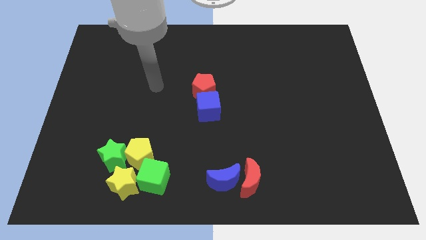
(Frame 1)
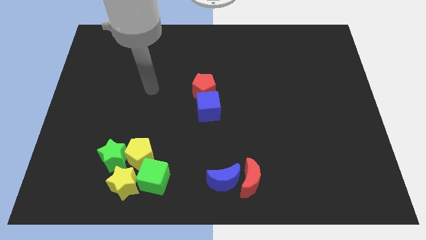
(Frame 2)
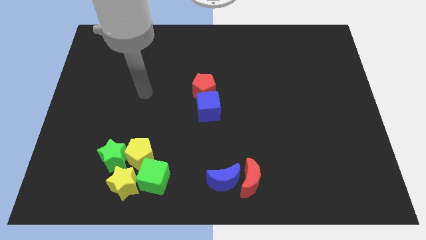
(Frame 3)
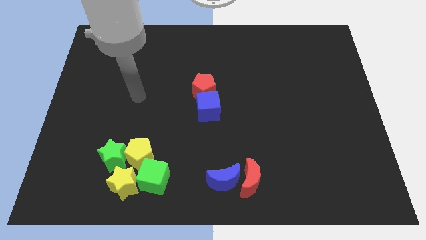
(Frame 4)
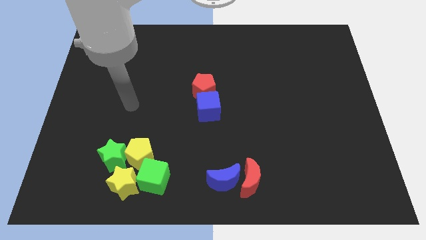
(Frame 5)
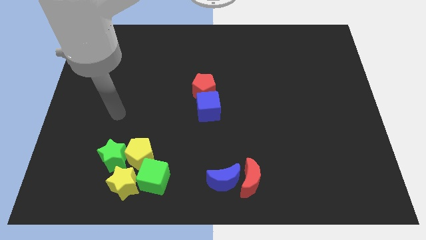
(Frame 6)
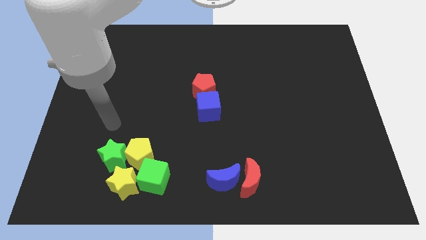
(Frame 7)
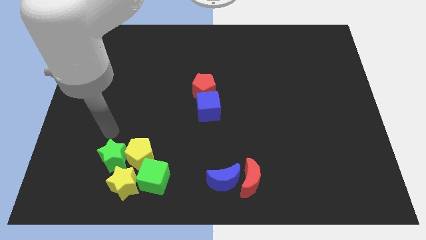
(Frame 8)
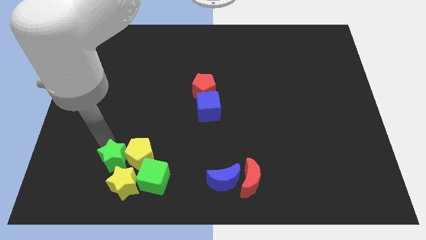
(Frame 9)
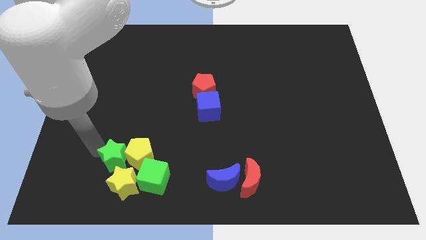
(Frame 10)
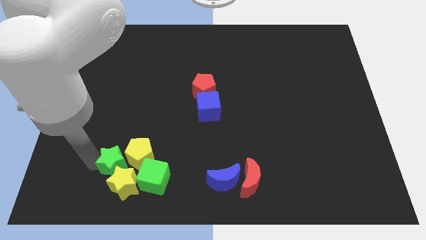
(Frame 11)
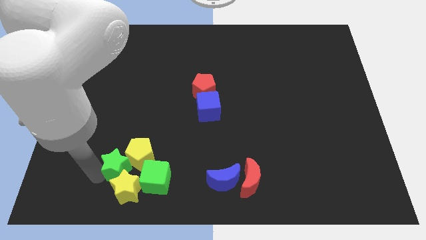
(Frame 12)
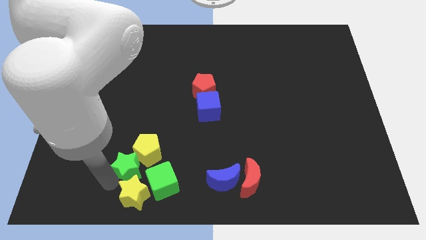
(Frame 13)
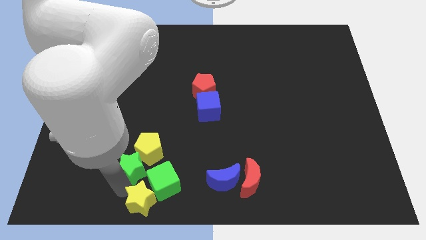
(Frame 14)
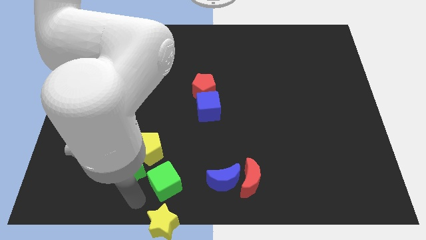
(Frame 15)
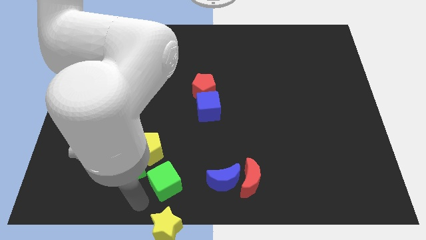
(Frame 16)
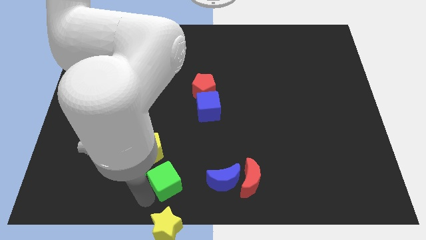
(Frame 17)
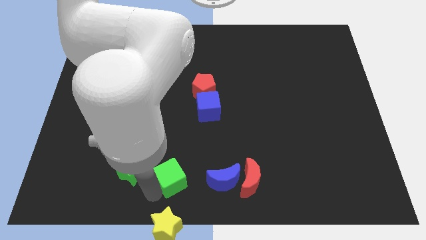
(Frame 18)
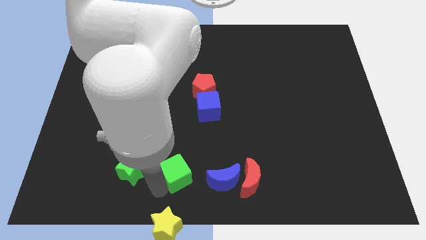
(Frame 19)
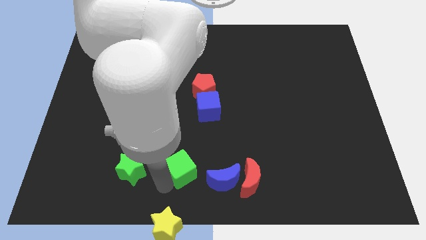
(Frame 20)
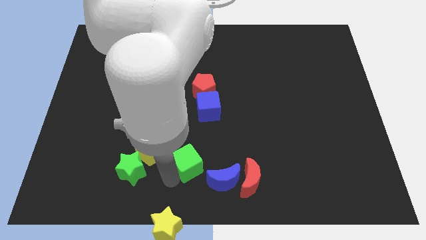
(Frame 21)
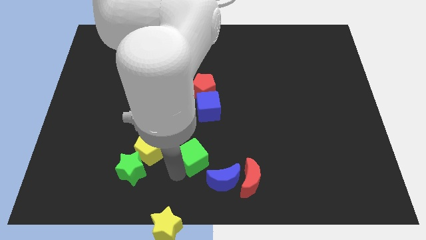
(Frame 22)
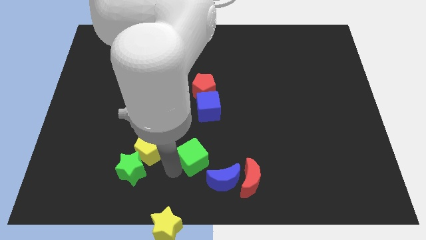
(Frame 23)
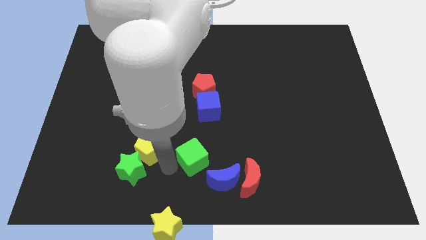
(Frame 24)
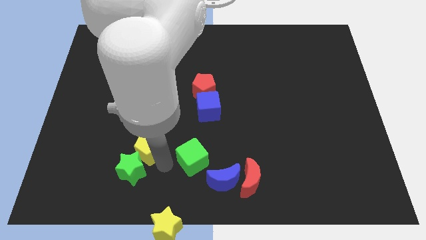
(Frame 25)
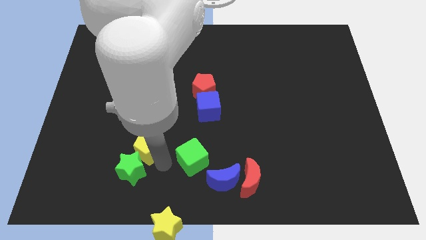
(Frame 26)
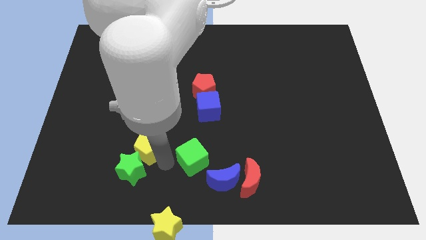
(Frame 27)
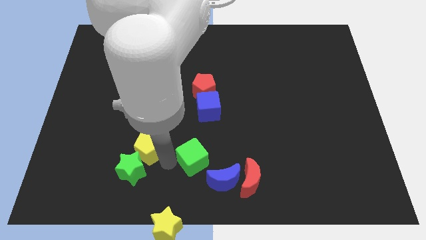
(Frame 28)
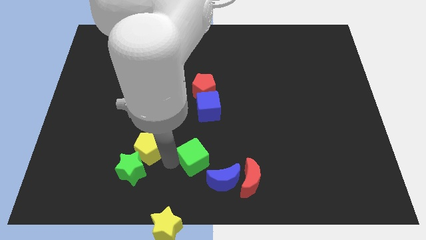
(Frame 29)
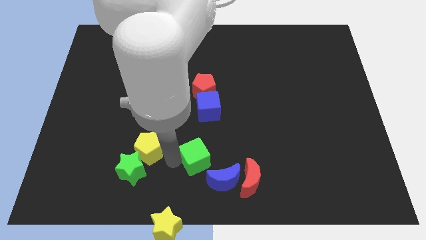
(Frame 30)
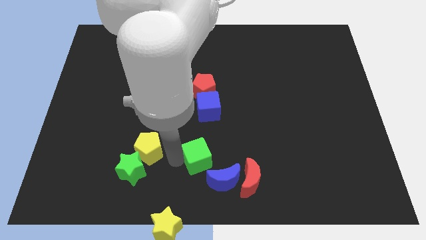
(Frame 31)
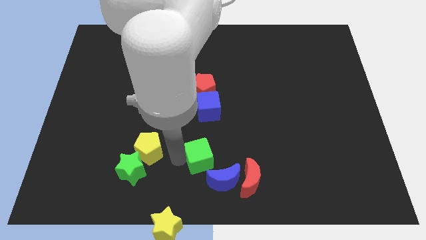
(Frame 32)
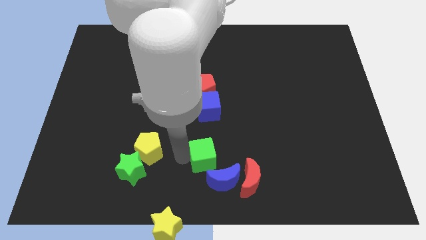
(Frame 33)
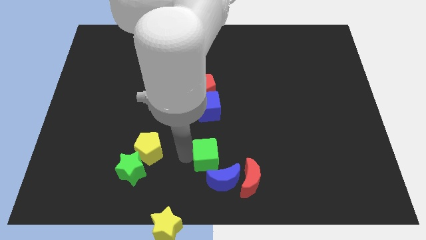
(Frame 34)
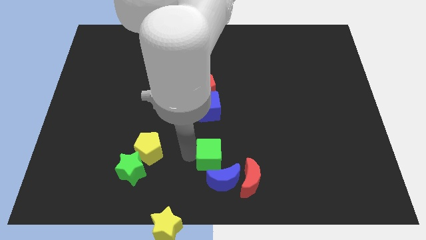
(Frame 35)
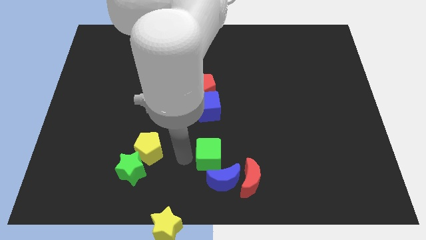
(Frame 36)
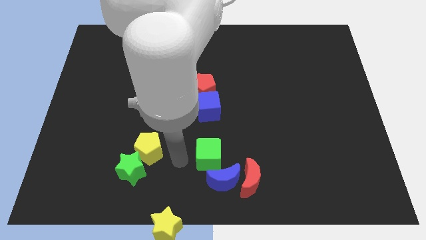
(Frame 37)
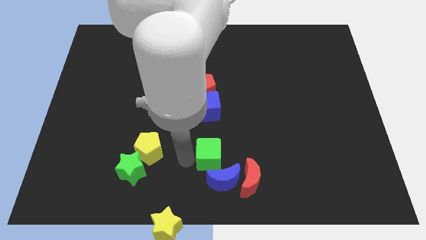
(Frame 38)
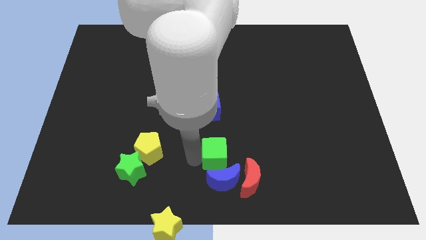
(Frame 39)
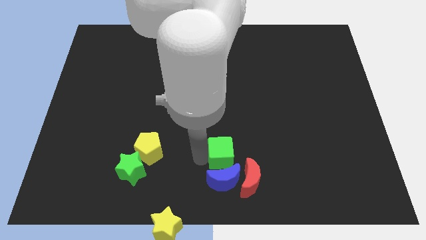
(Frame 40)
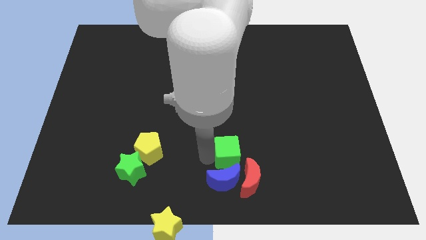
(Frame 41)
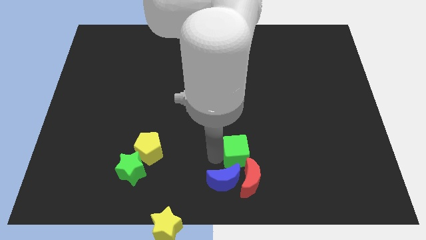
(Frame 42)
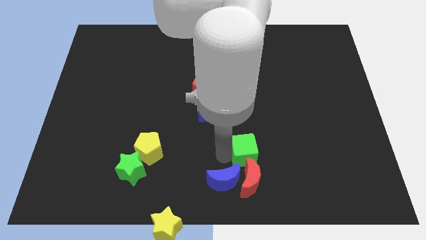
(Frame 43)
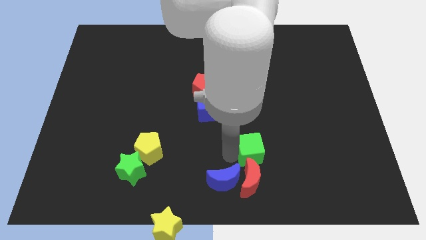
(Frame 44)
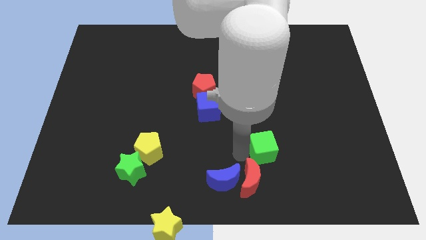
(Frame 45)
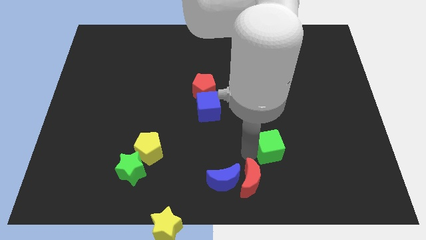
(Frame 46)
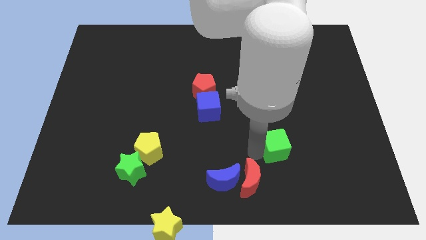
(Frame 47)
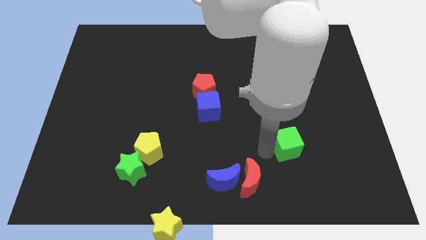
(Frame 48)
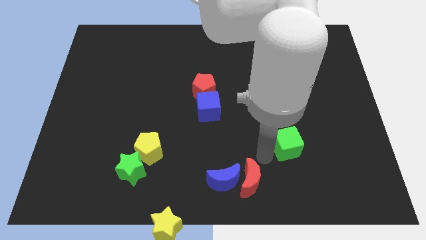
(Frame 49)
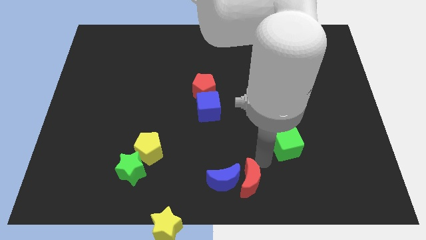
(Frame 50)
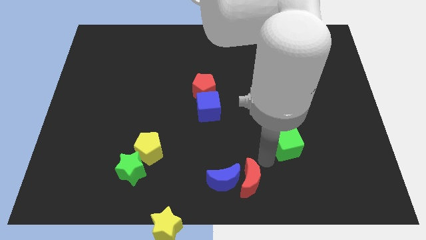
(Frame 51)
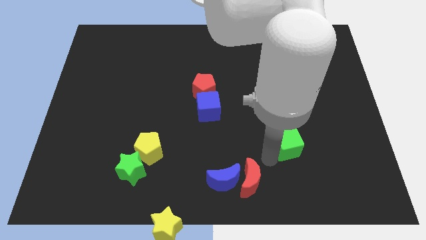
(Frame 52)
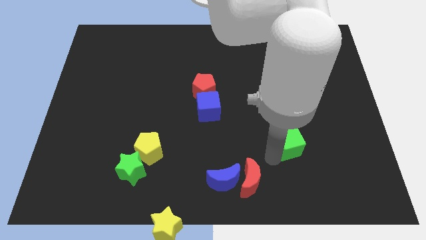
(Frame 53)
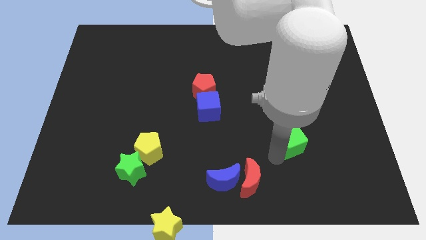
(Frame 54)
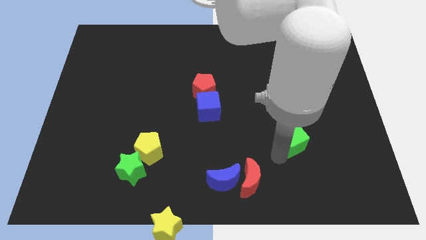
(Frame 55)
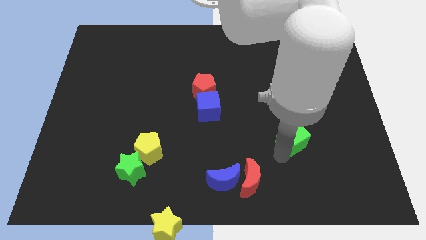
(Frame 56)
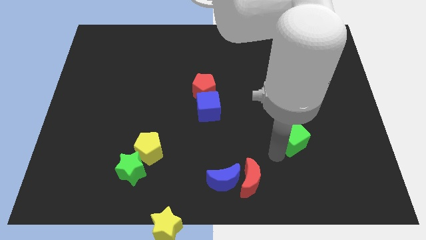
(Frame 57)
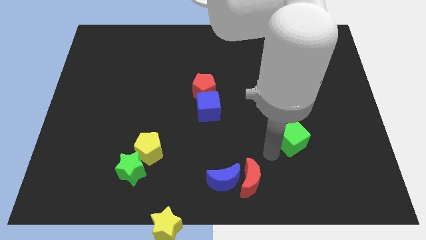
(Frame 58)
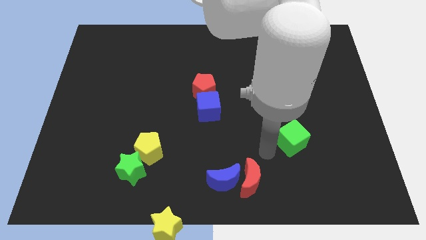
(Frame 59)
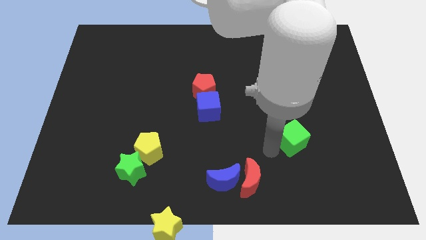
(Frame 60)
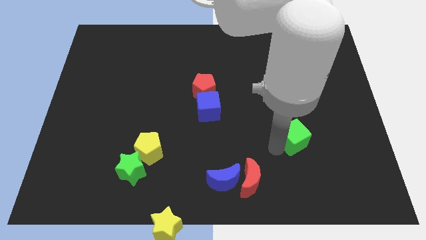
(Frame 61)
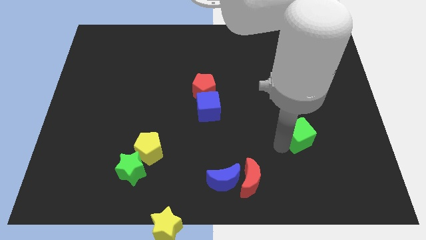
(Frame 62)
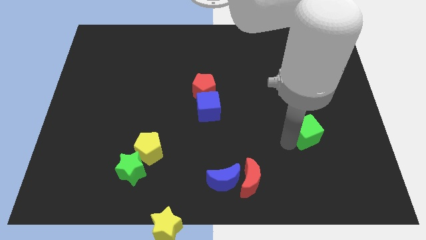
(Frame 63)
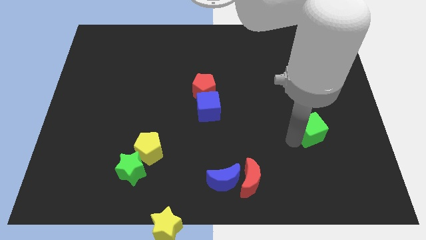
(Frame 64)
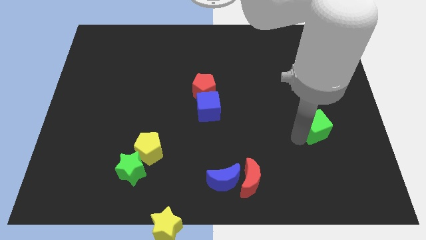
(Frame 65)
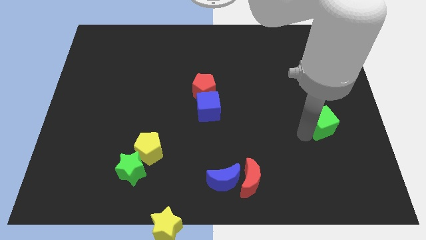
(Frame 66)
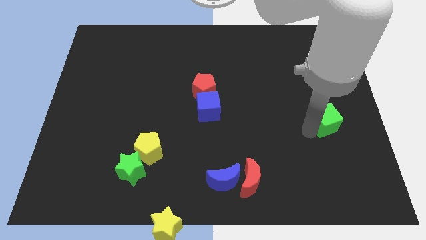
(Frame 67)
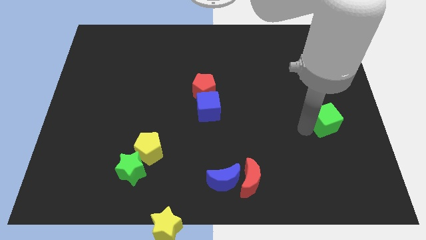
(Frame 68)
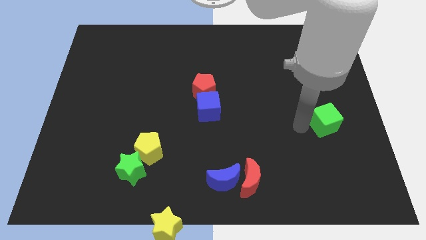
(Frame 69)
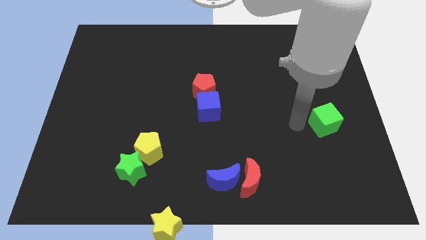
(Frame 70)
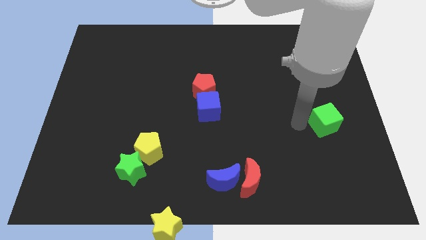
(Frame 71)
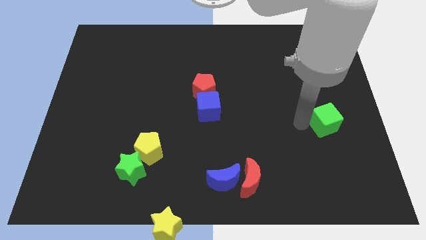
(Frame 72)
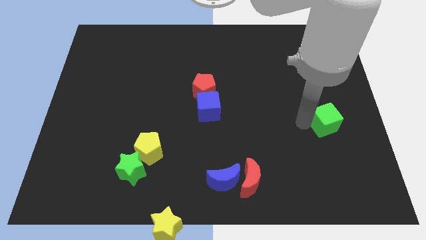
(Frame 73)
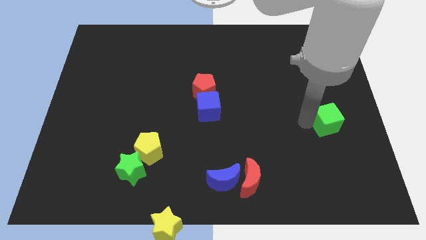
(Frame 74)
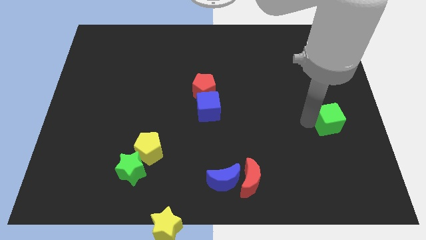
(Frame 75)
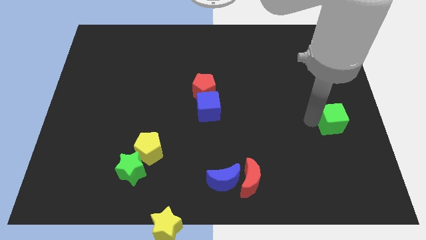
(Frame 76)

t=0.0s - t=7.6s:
put the green cube to the right side of the board

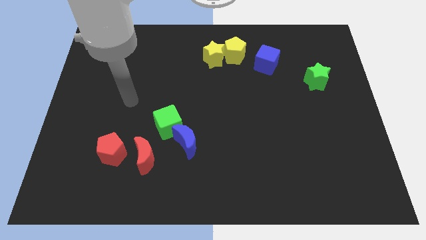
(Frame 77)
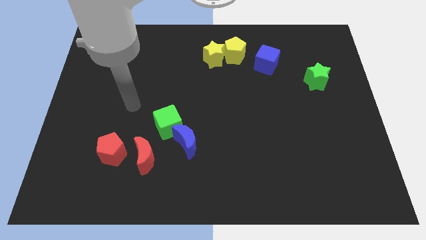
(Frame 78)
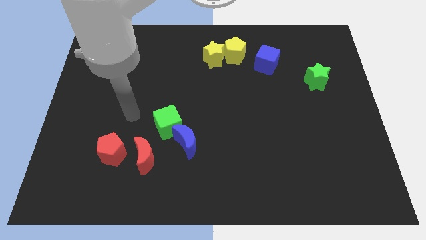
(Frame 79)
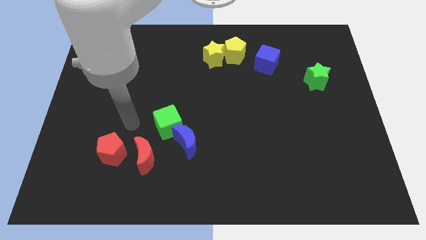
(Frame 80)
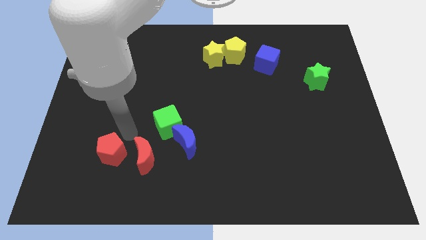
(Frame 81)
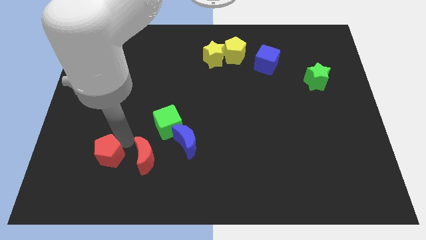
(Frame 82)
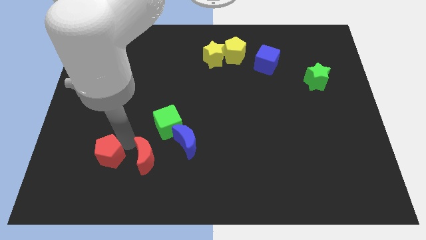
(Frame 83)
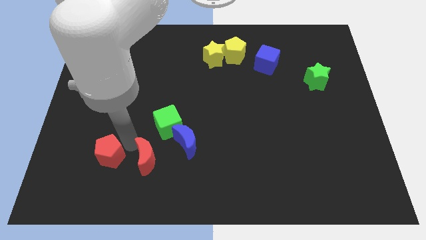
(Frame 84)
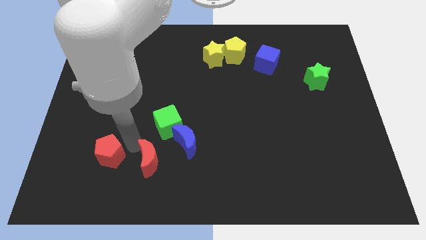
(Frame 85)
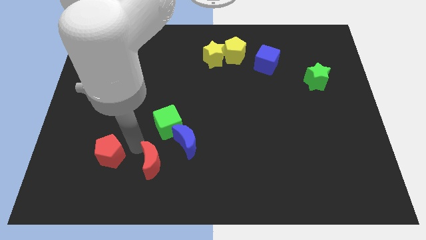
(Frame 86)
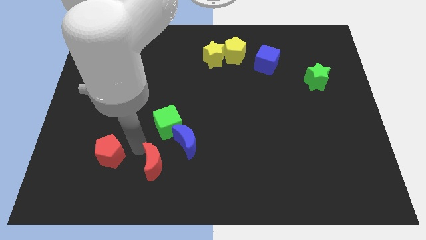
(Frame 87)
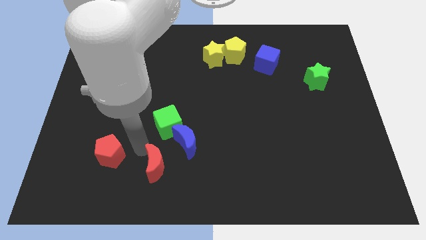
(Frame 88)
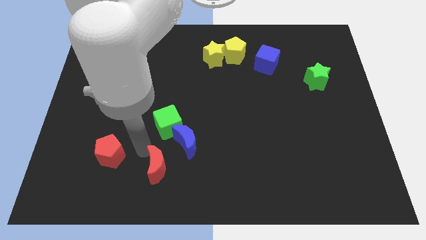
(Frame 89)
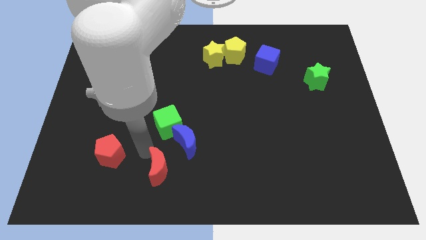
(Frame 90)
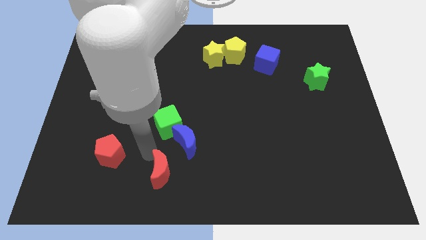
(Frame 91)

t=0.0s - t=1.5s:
put the red moon to the bottom side
